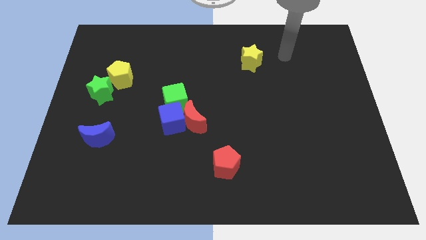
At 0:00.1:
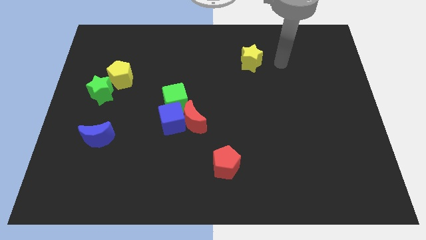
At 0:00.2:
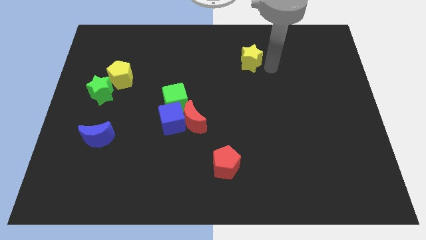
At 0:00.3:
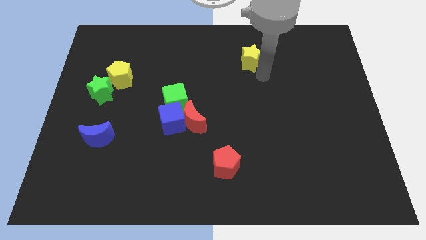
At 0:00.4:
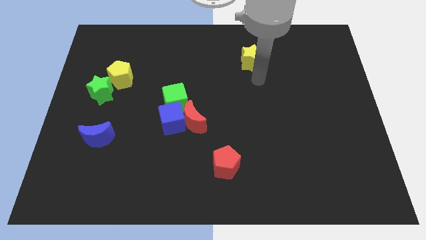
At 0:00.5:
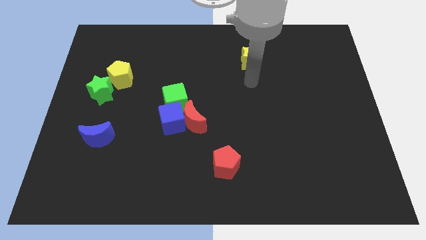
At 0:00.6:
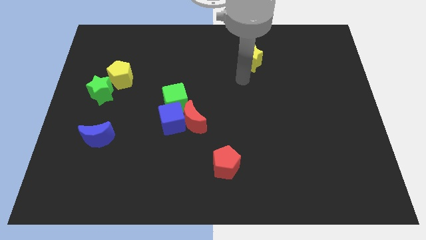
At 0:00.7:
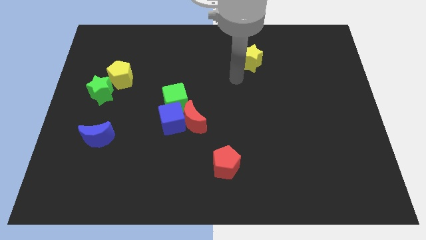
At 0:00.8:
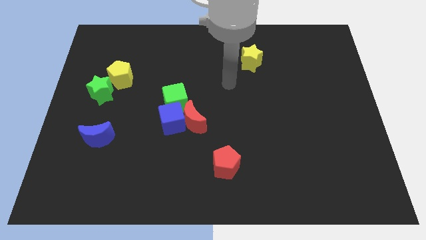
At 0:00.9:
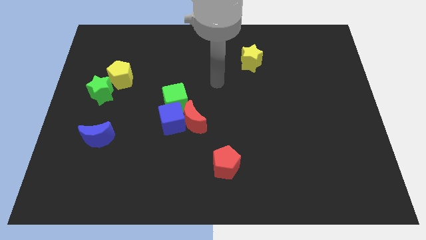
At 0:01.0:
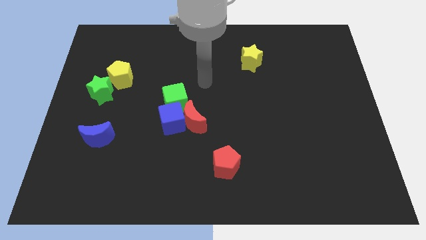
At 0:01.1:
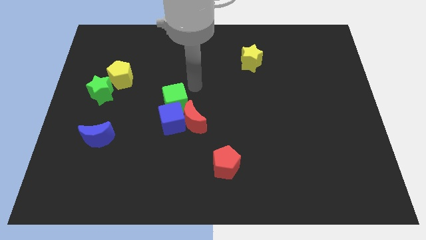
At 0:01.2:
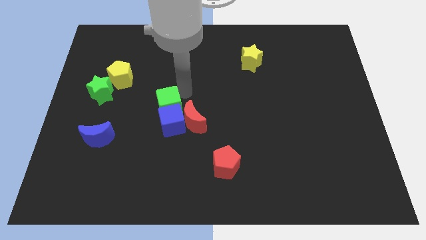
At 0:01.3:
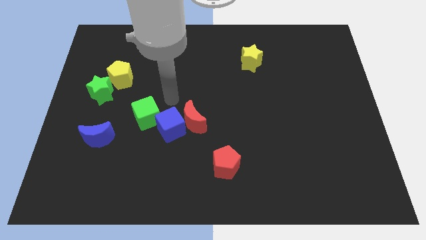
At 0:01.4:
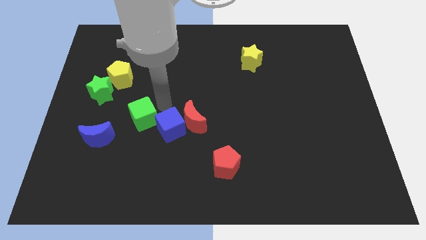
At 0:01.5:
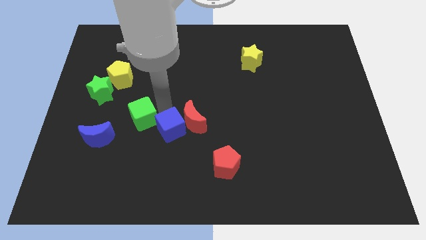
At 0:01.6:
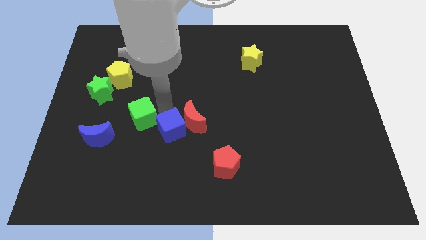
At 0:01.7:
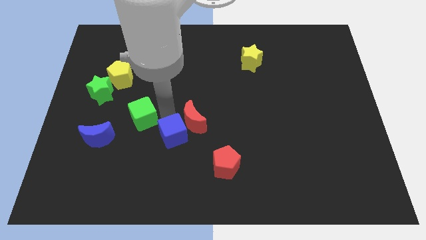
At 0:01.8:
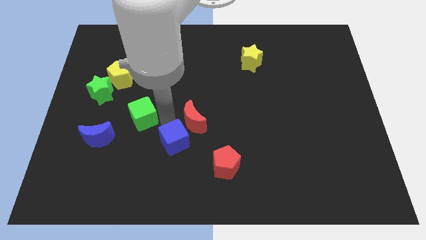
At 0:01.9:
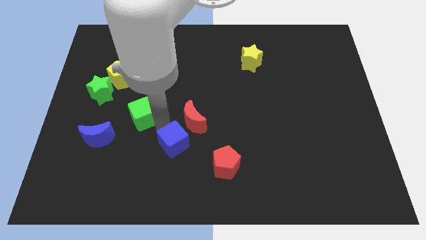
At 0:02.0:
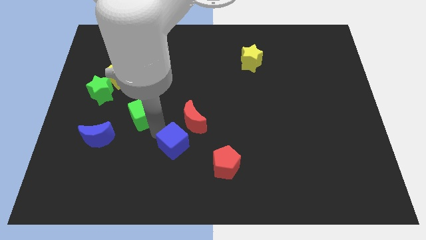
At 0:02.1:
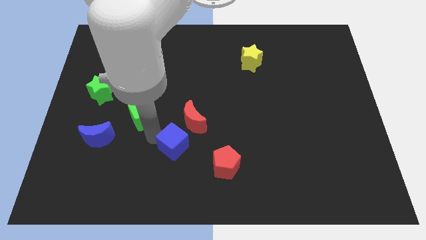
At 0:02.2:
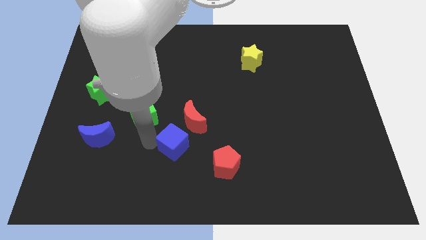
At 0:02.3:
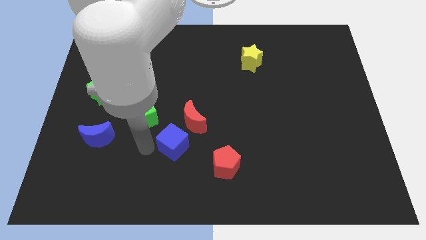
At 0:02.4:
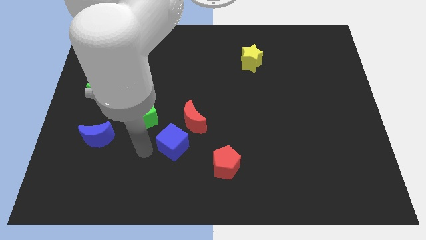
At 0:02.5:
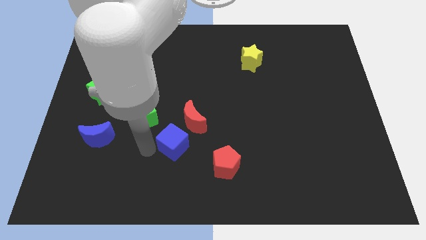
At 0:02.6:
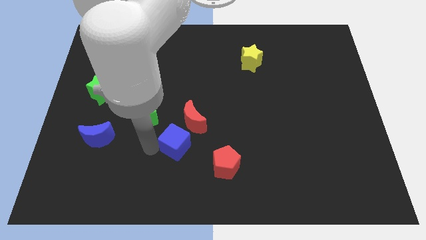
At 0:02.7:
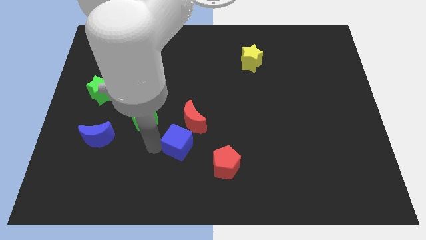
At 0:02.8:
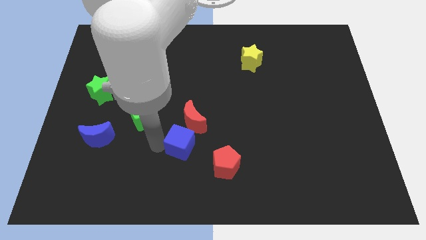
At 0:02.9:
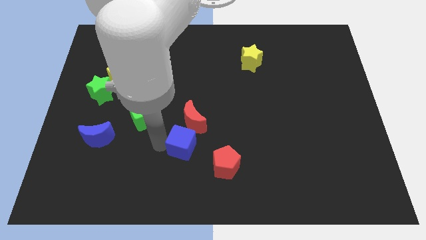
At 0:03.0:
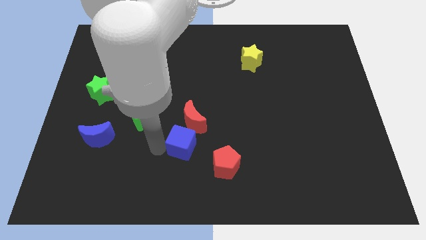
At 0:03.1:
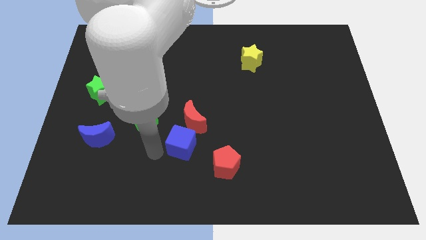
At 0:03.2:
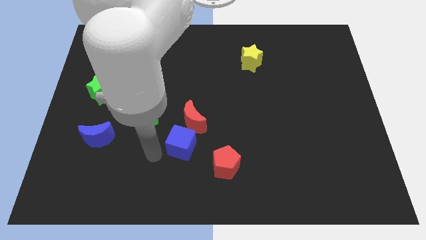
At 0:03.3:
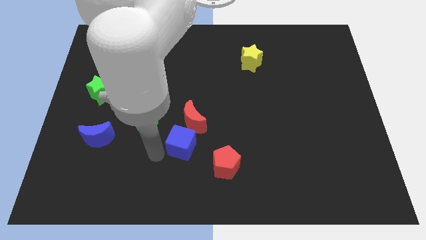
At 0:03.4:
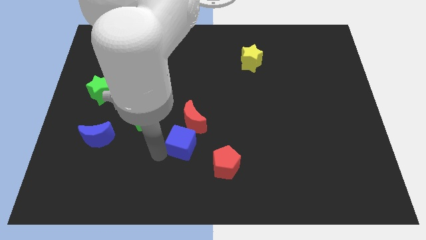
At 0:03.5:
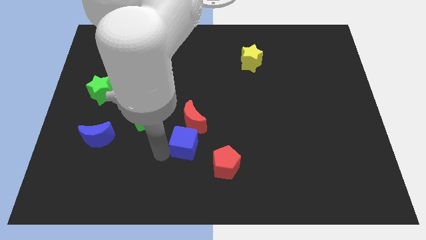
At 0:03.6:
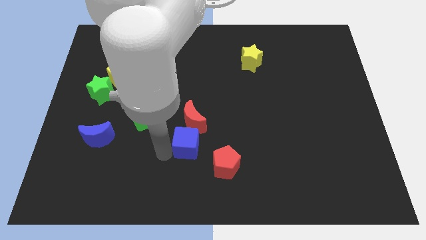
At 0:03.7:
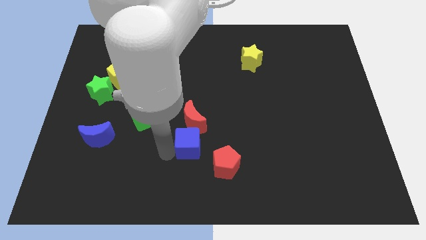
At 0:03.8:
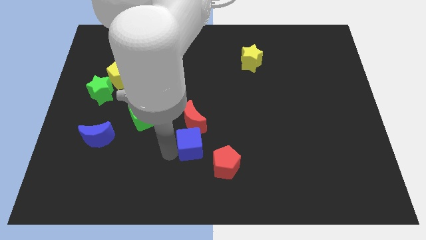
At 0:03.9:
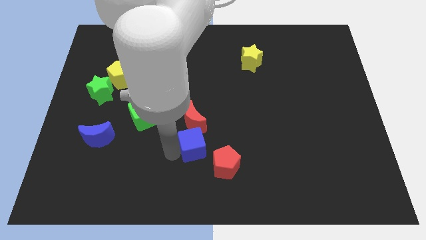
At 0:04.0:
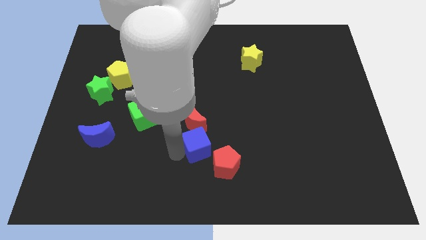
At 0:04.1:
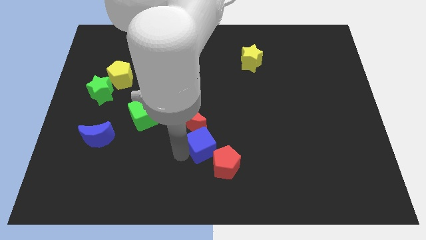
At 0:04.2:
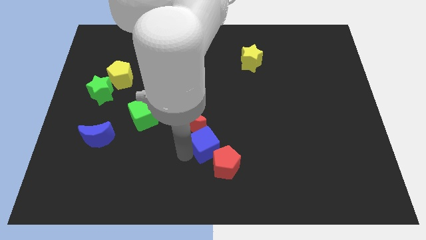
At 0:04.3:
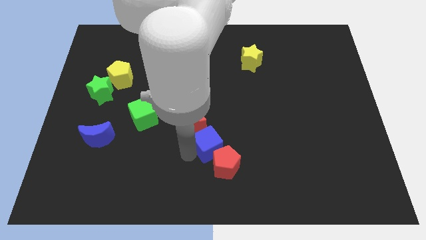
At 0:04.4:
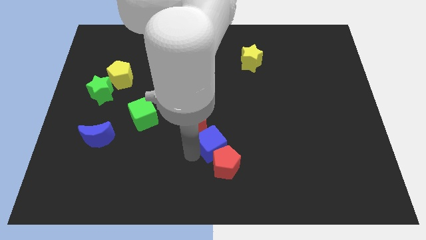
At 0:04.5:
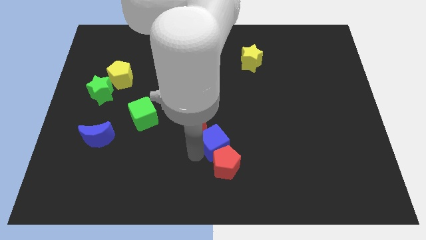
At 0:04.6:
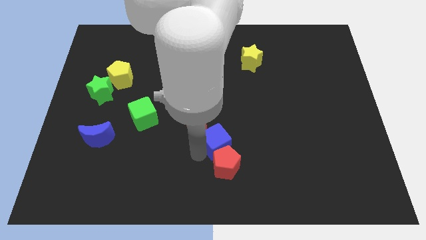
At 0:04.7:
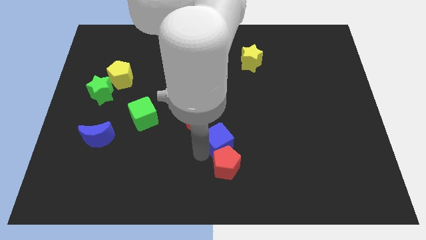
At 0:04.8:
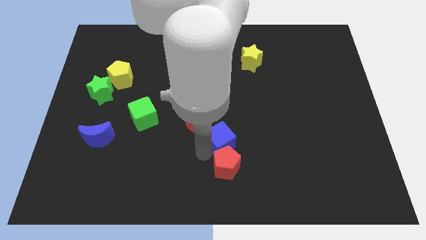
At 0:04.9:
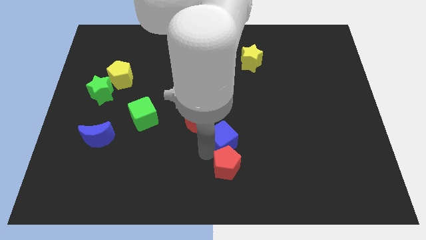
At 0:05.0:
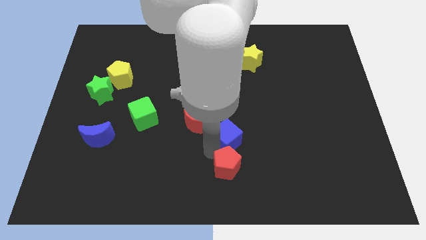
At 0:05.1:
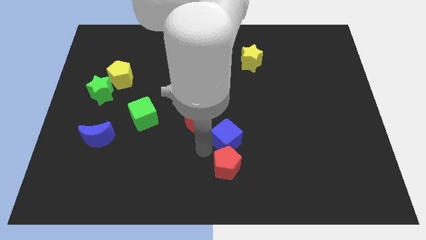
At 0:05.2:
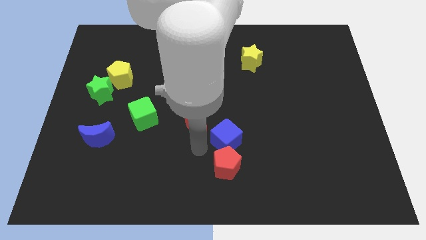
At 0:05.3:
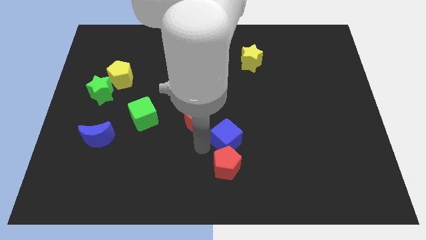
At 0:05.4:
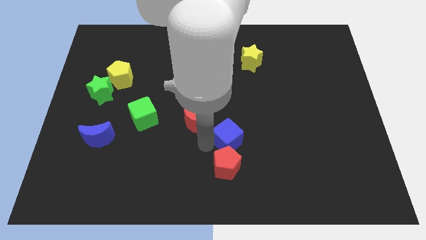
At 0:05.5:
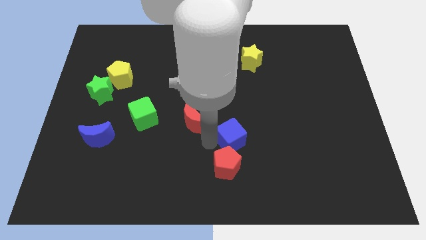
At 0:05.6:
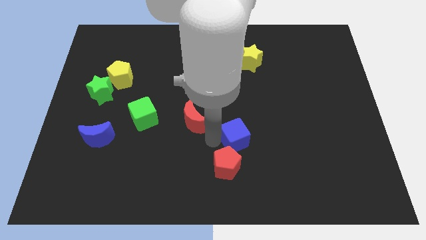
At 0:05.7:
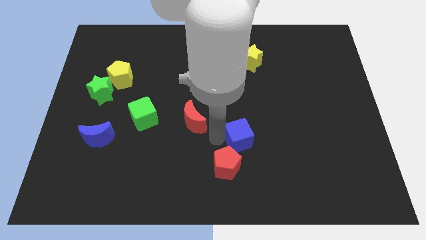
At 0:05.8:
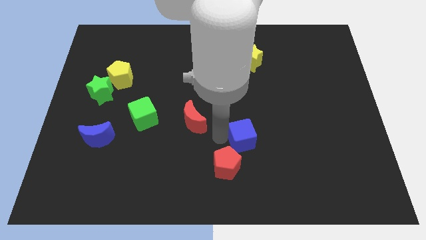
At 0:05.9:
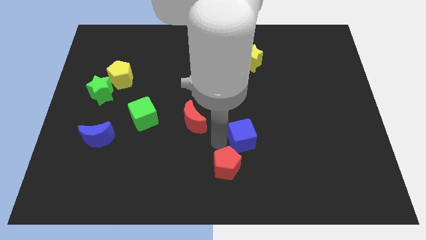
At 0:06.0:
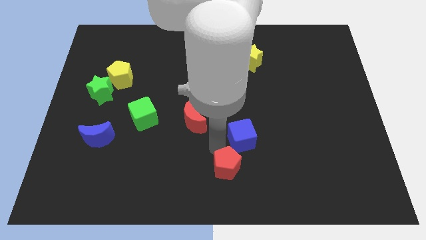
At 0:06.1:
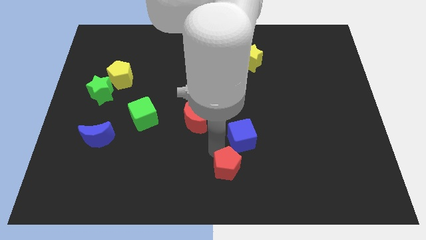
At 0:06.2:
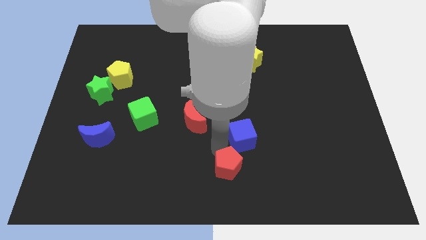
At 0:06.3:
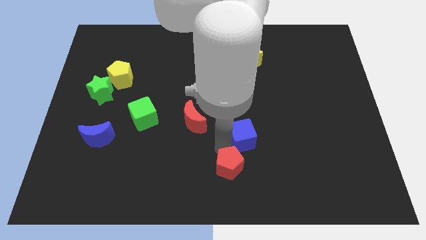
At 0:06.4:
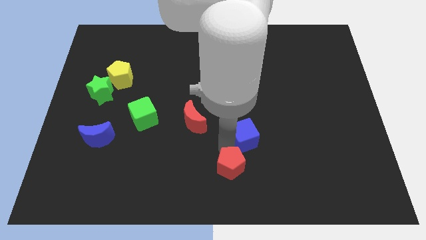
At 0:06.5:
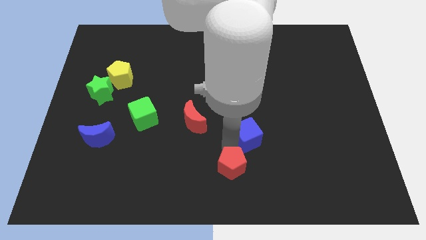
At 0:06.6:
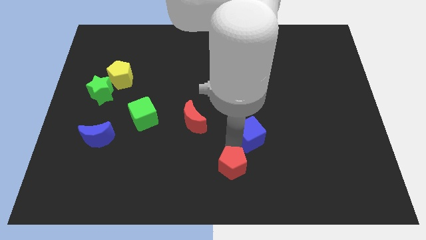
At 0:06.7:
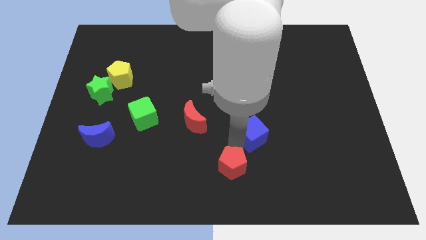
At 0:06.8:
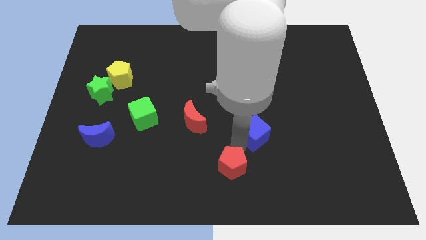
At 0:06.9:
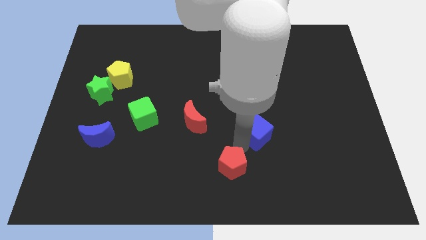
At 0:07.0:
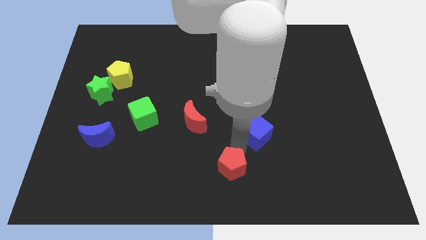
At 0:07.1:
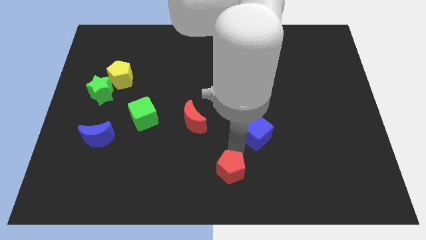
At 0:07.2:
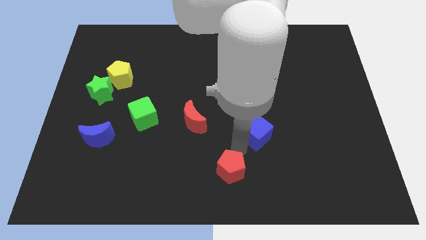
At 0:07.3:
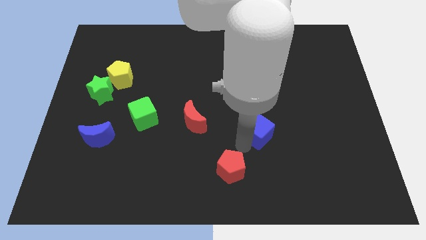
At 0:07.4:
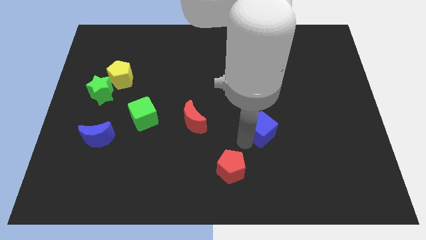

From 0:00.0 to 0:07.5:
push the blue cube to the right

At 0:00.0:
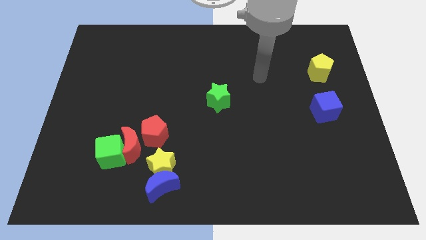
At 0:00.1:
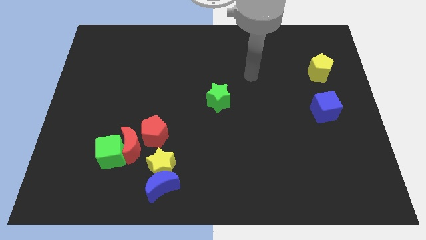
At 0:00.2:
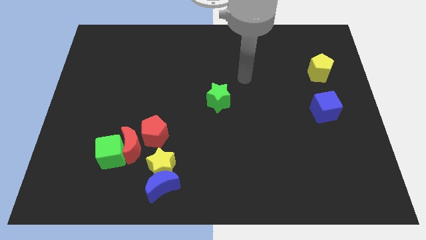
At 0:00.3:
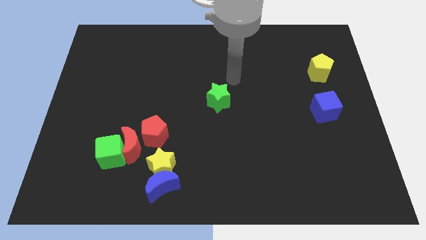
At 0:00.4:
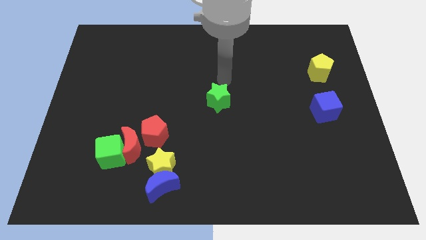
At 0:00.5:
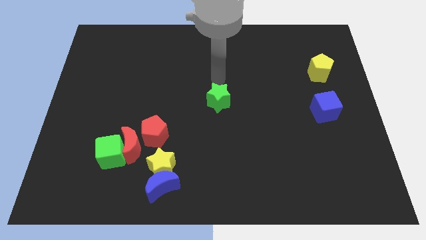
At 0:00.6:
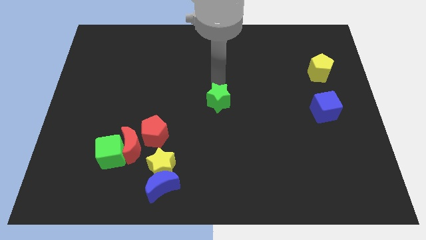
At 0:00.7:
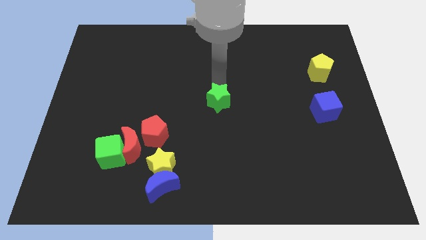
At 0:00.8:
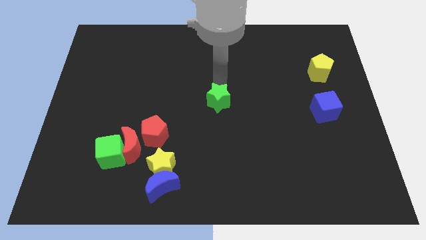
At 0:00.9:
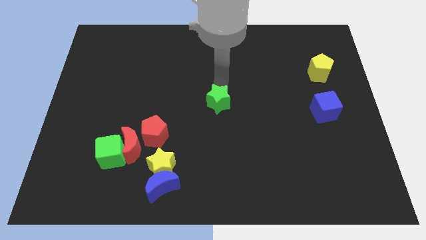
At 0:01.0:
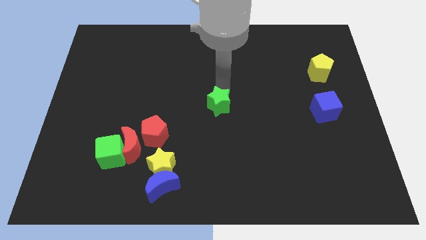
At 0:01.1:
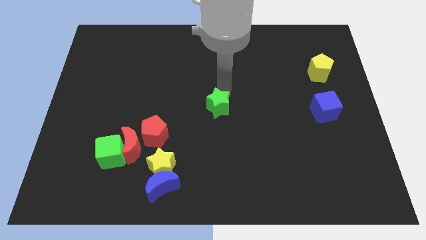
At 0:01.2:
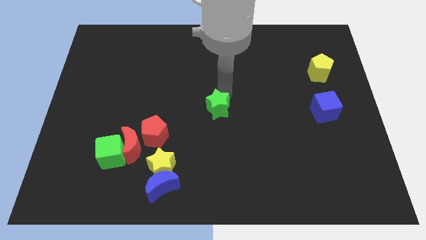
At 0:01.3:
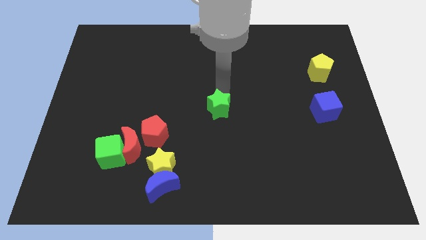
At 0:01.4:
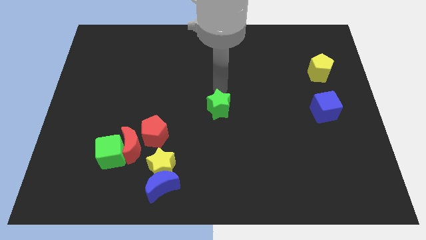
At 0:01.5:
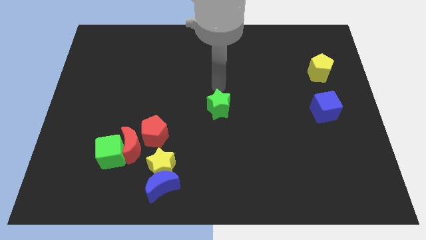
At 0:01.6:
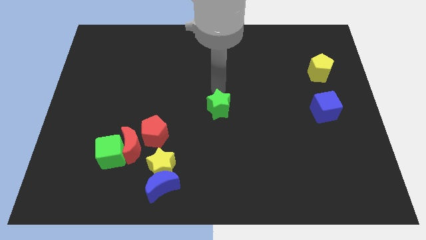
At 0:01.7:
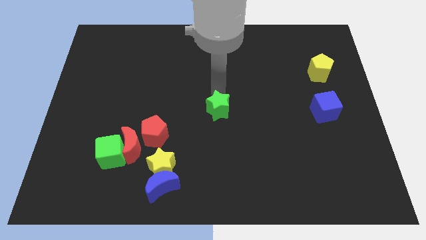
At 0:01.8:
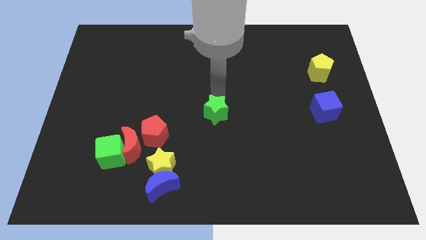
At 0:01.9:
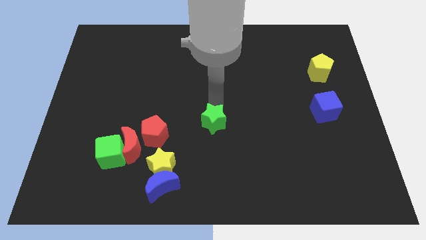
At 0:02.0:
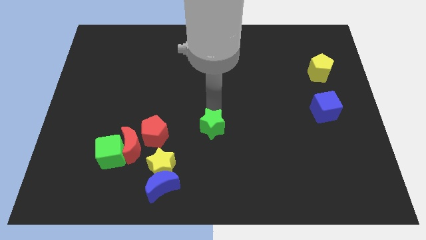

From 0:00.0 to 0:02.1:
slide the green star a little downwards
